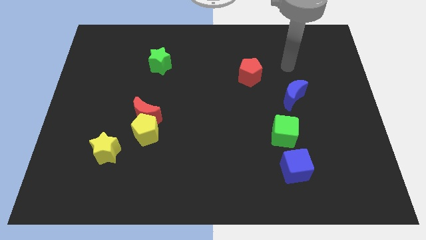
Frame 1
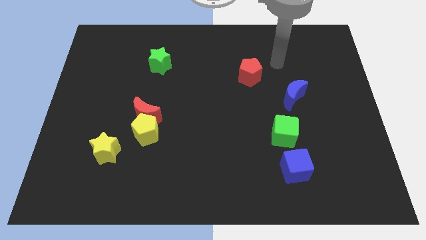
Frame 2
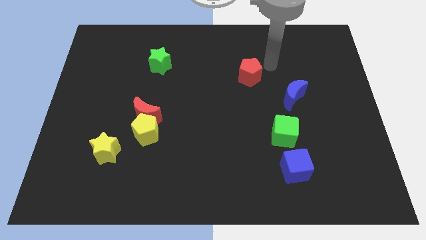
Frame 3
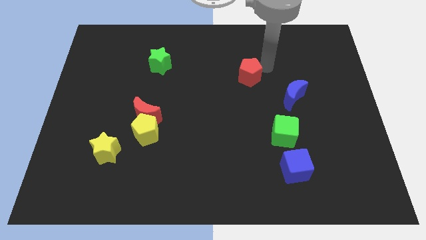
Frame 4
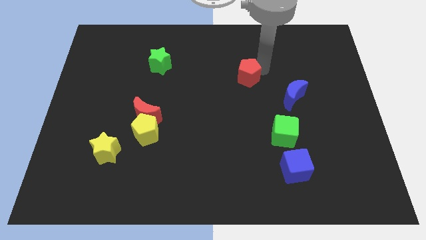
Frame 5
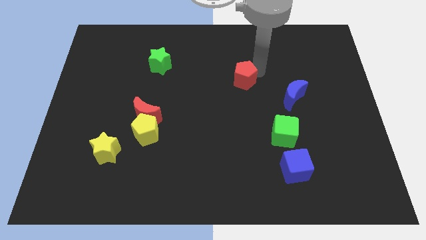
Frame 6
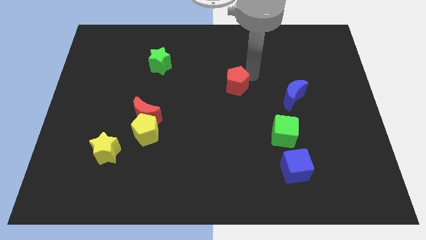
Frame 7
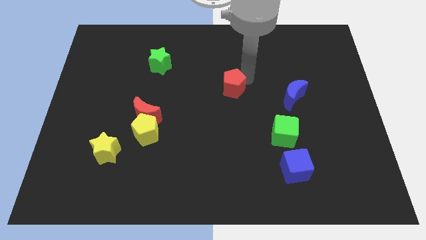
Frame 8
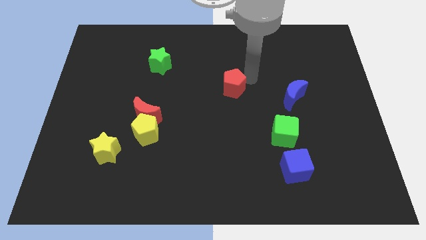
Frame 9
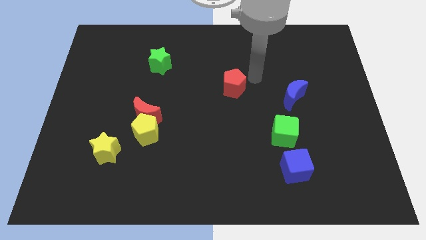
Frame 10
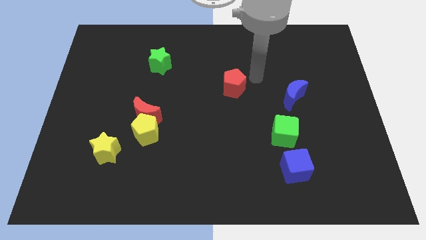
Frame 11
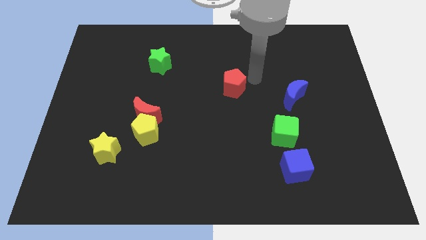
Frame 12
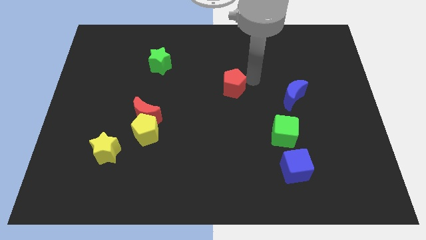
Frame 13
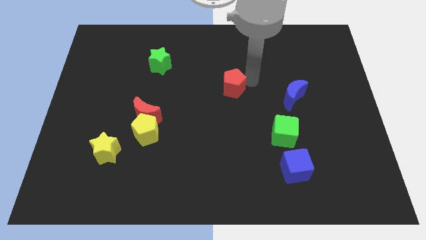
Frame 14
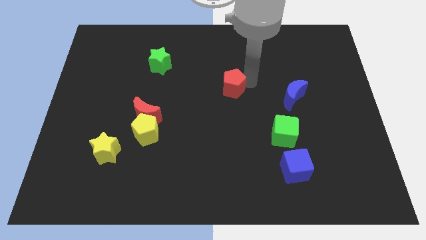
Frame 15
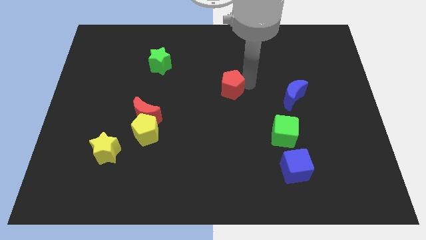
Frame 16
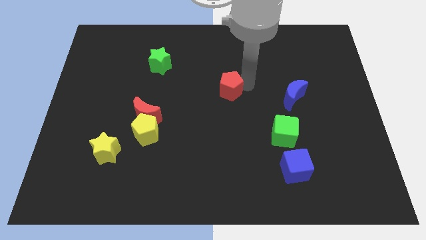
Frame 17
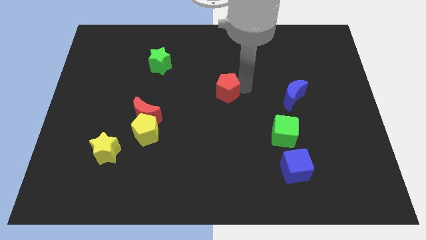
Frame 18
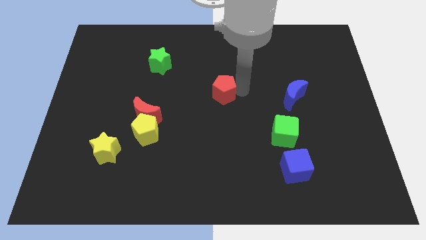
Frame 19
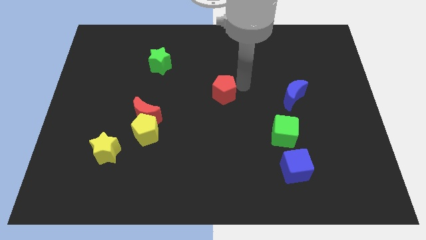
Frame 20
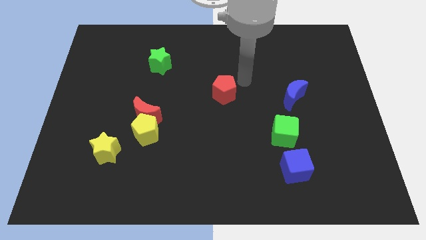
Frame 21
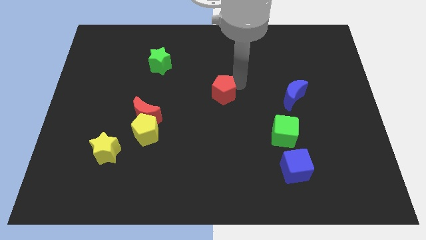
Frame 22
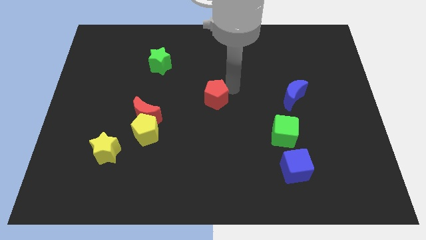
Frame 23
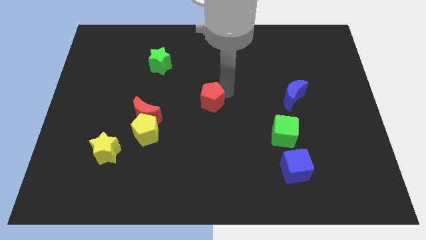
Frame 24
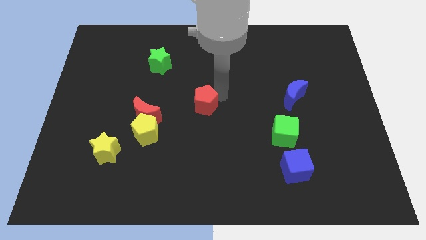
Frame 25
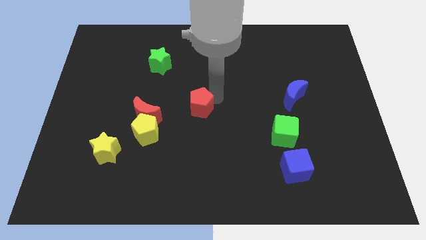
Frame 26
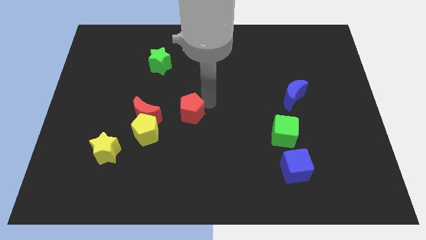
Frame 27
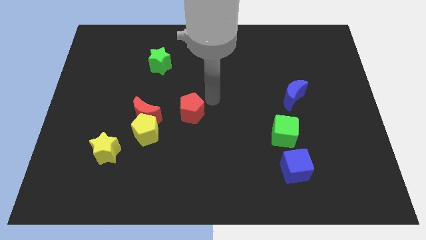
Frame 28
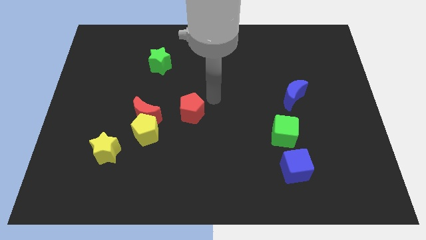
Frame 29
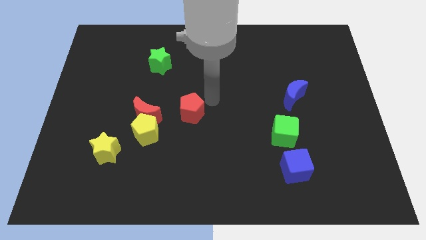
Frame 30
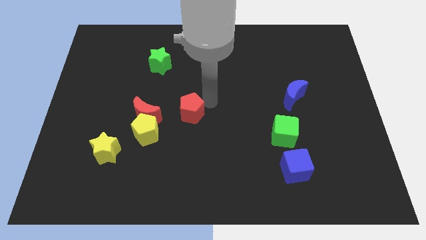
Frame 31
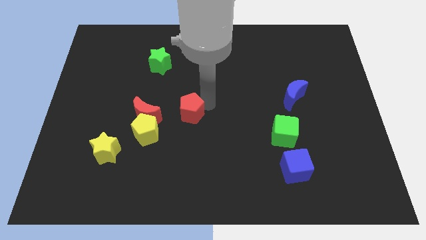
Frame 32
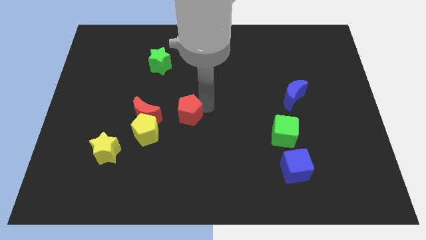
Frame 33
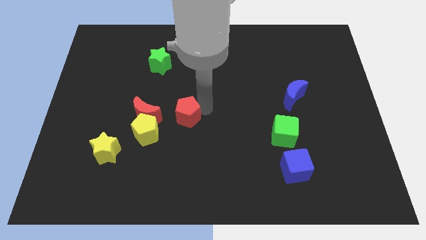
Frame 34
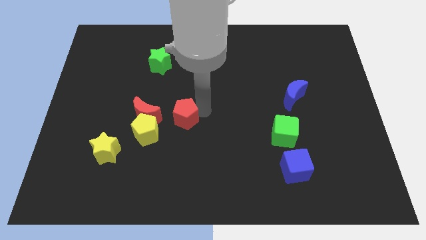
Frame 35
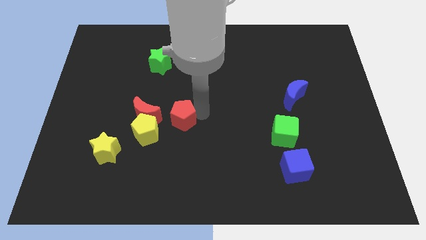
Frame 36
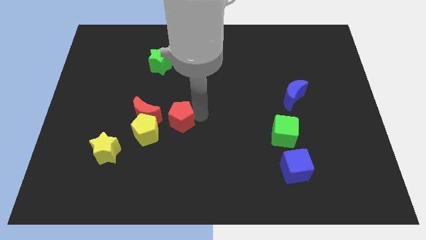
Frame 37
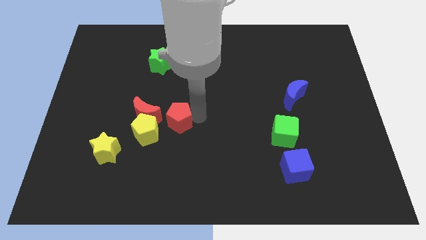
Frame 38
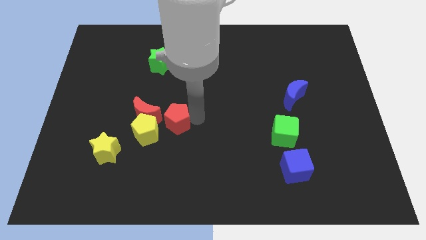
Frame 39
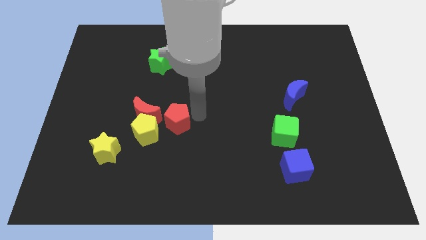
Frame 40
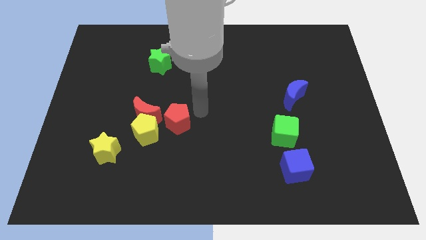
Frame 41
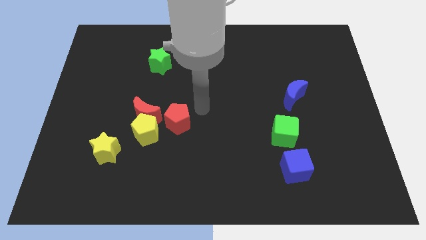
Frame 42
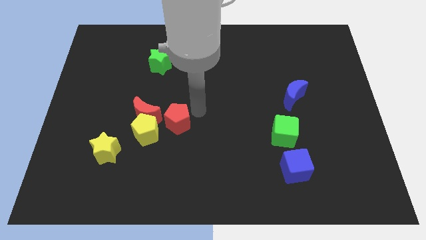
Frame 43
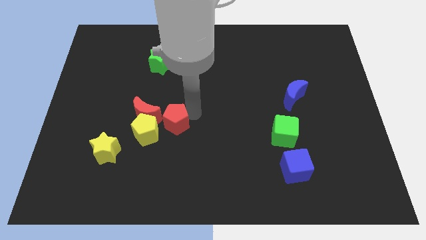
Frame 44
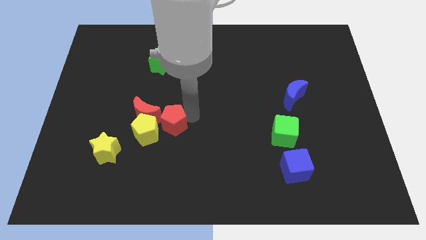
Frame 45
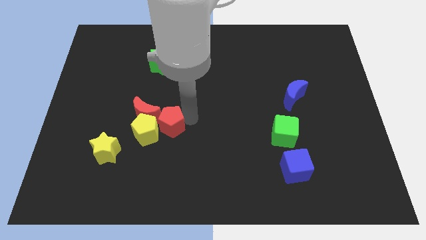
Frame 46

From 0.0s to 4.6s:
put the red pentagon to the yellow pentagon

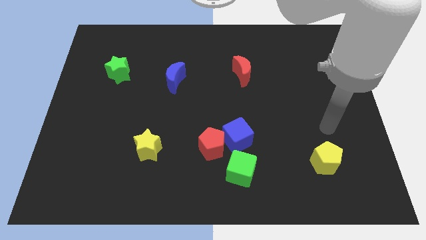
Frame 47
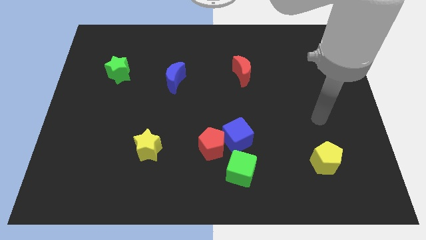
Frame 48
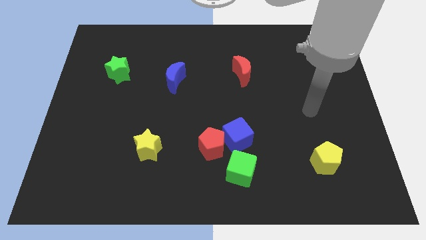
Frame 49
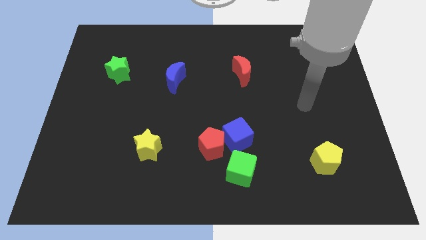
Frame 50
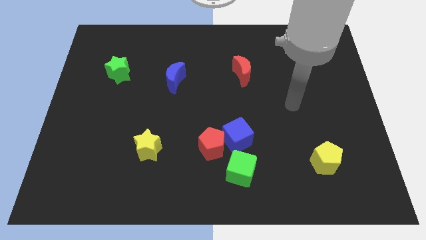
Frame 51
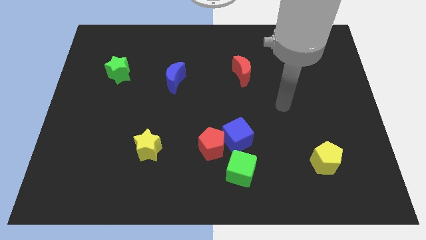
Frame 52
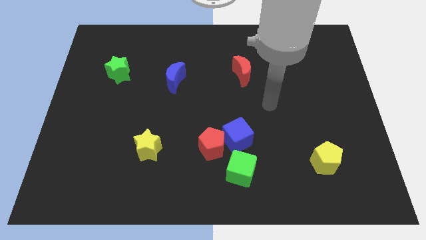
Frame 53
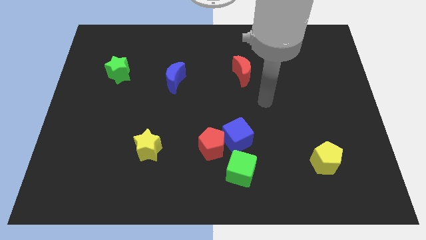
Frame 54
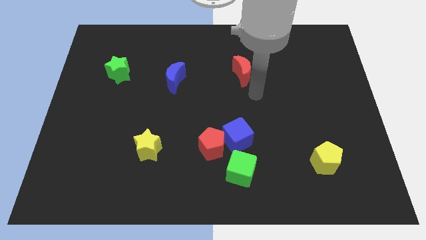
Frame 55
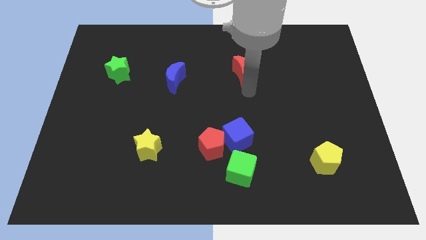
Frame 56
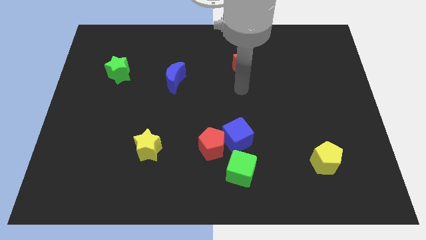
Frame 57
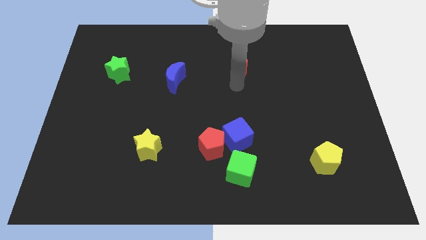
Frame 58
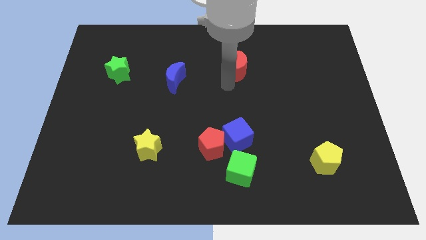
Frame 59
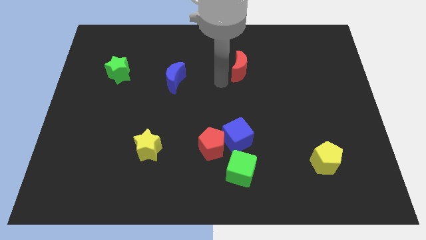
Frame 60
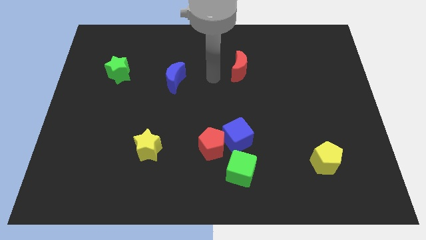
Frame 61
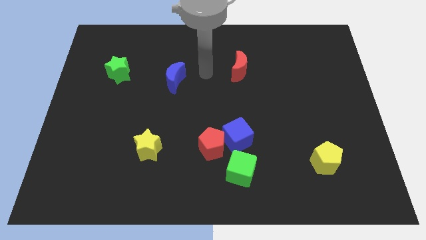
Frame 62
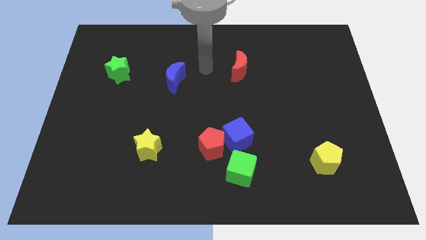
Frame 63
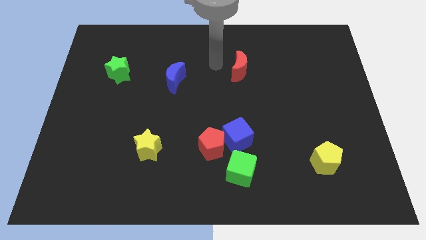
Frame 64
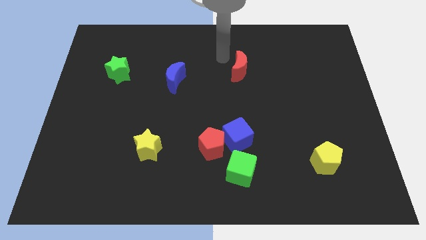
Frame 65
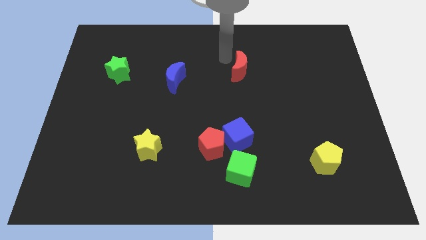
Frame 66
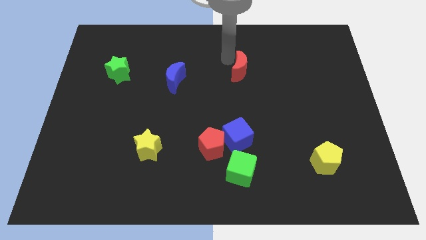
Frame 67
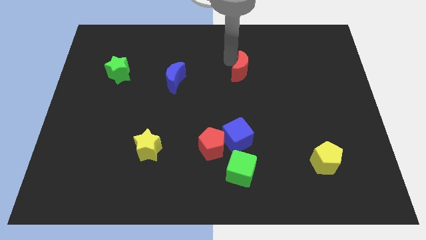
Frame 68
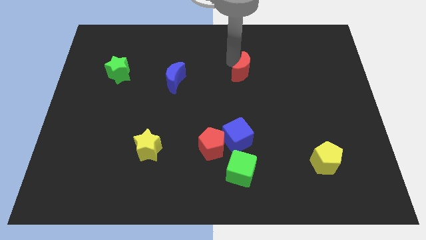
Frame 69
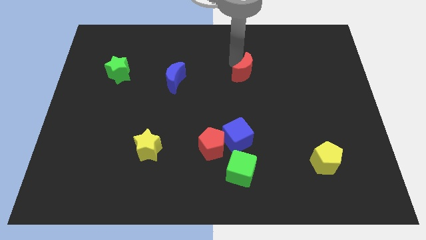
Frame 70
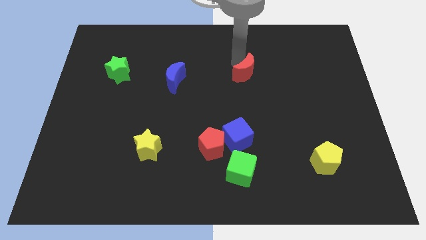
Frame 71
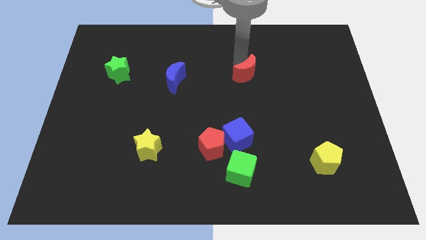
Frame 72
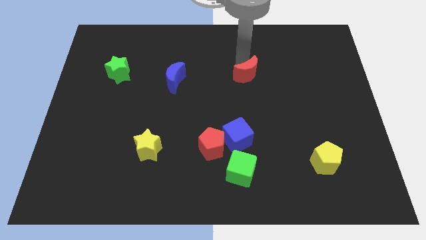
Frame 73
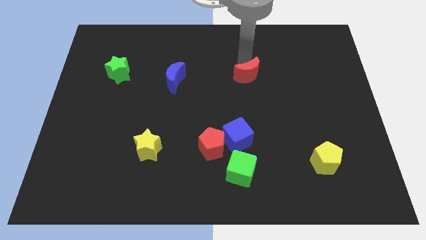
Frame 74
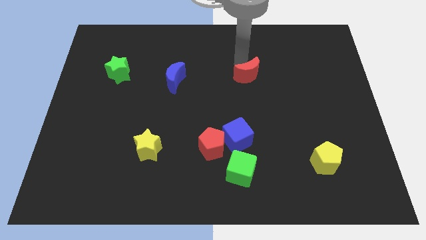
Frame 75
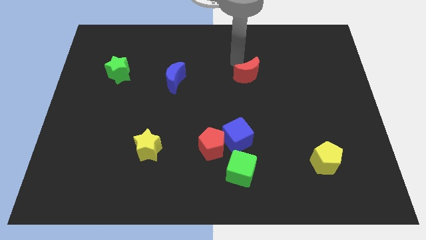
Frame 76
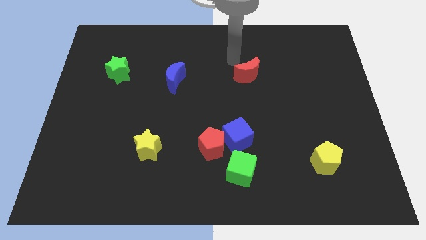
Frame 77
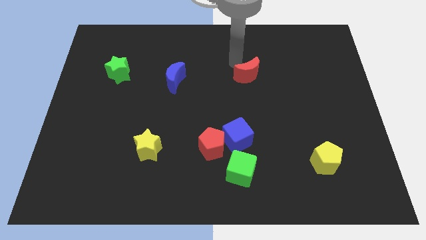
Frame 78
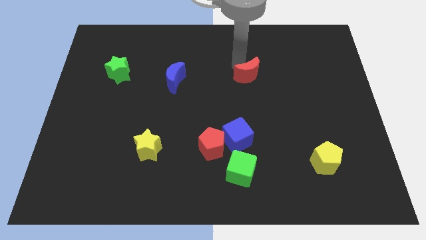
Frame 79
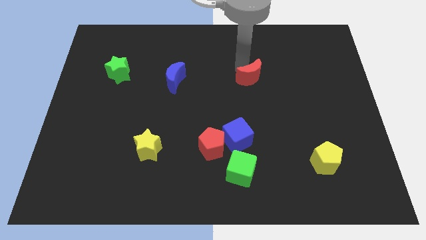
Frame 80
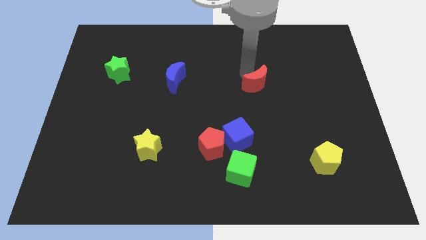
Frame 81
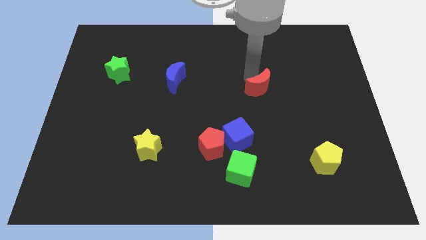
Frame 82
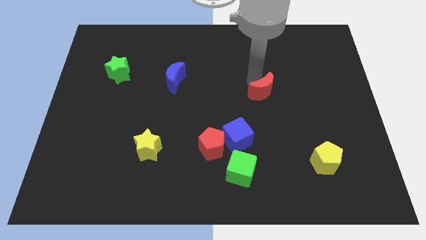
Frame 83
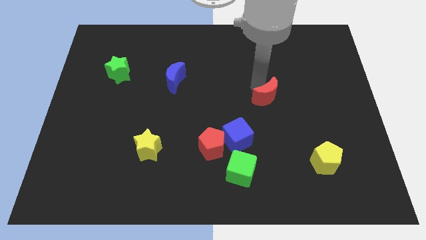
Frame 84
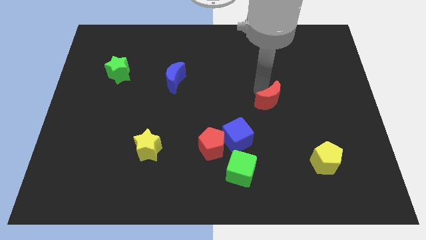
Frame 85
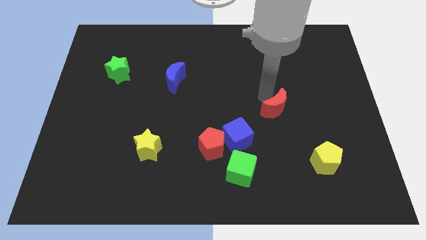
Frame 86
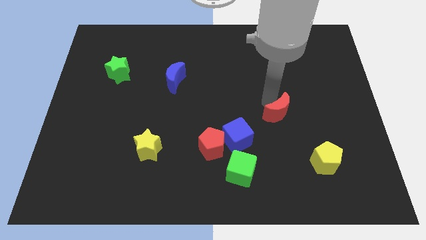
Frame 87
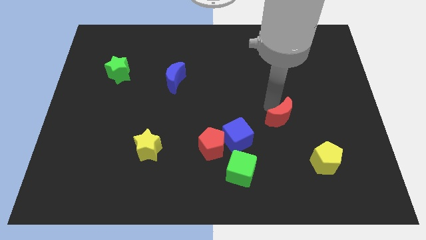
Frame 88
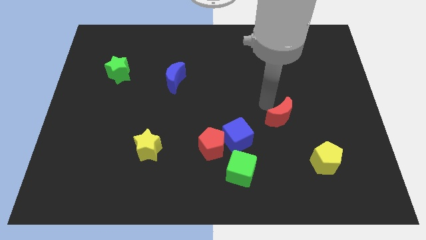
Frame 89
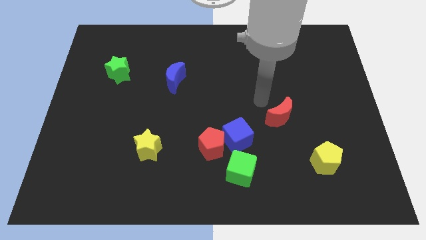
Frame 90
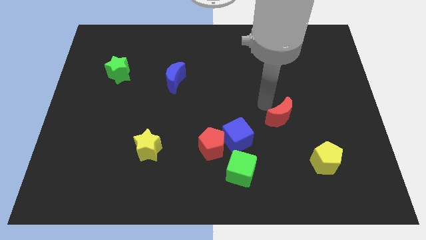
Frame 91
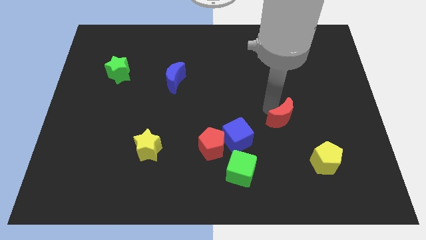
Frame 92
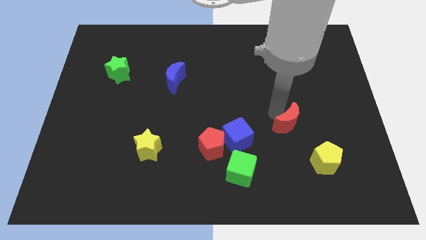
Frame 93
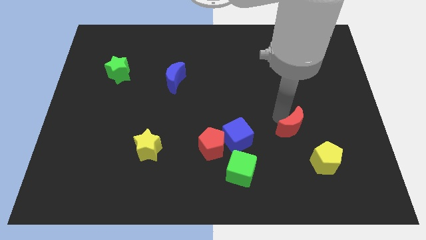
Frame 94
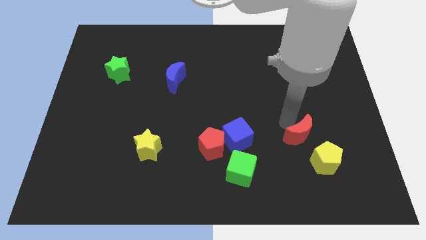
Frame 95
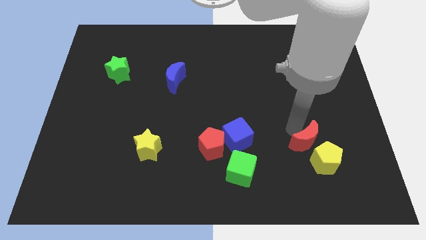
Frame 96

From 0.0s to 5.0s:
push the red moon next to the yellow pentagon
